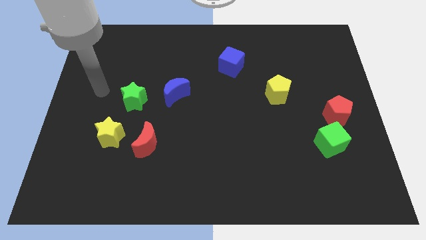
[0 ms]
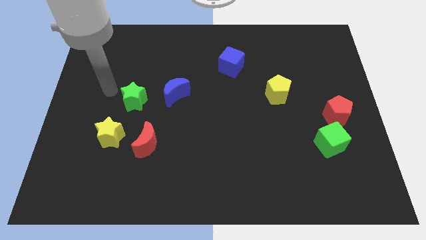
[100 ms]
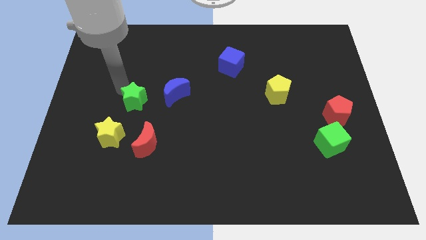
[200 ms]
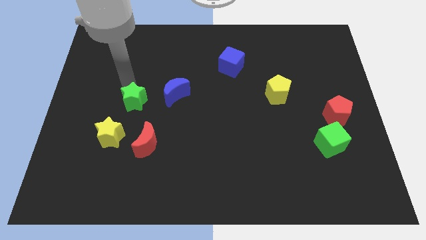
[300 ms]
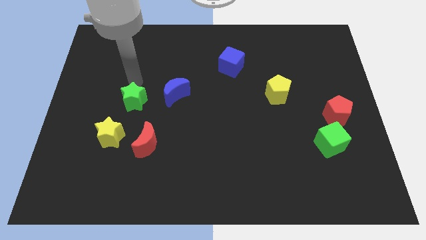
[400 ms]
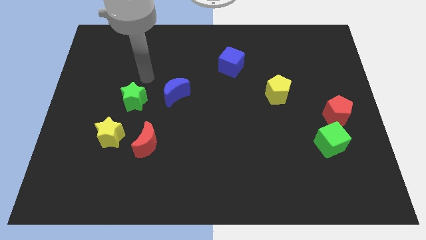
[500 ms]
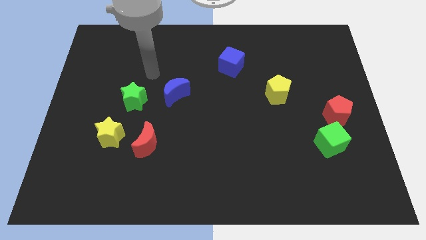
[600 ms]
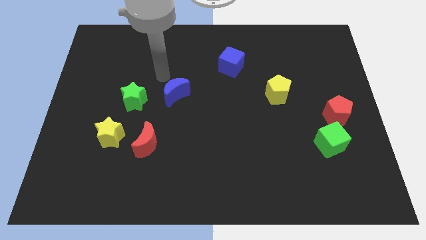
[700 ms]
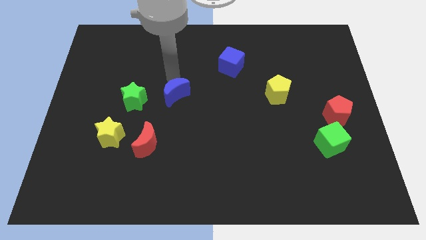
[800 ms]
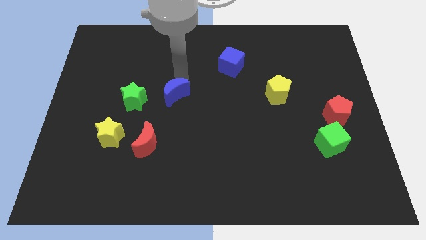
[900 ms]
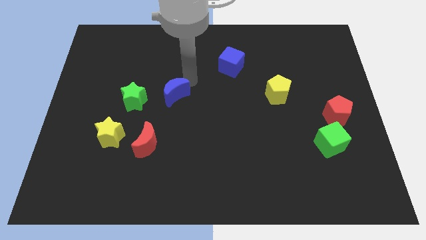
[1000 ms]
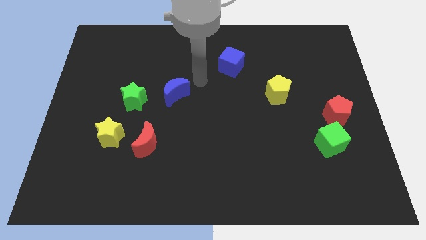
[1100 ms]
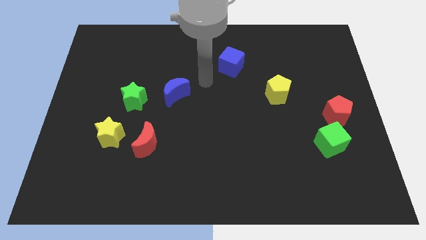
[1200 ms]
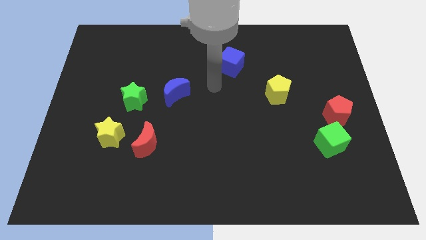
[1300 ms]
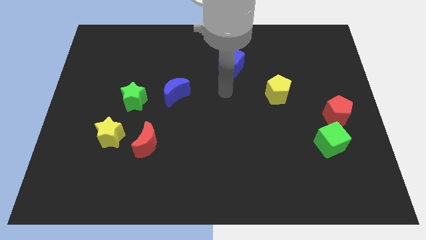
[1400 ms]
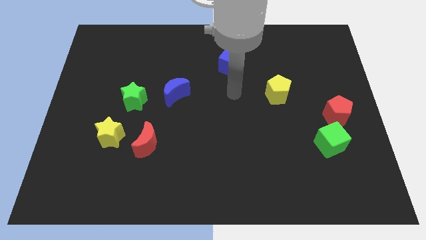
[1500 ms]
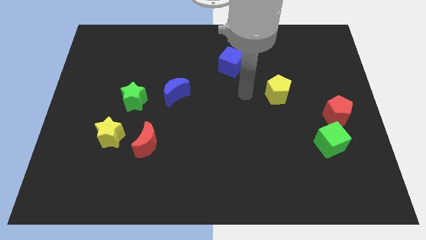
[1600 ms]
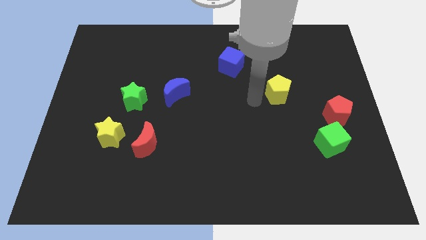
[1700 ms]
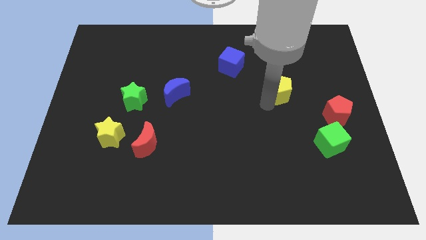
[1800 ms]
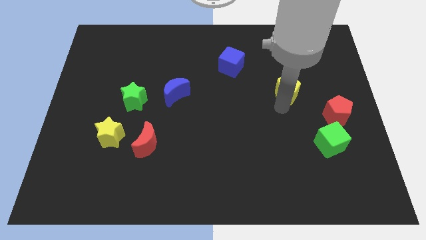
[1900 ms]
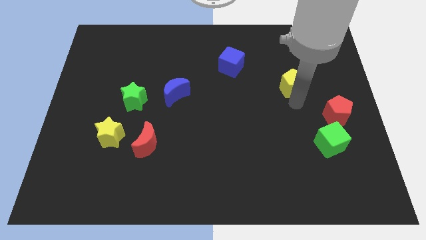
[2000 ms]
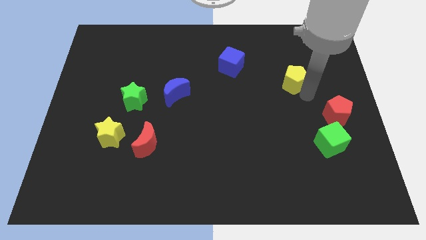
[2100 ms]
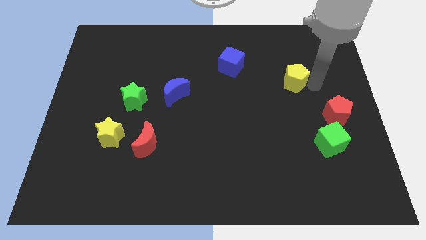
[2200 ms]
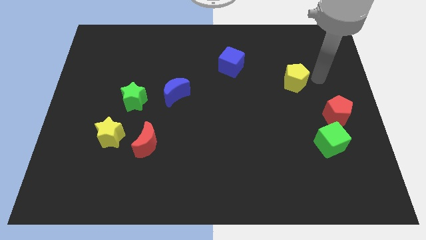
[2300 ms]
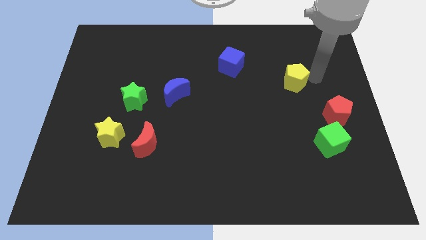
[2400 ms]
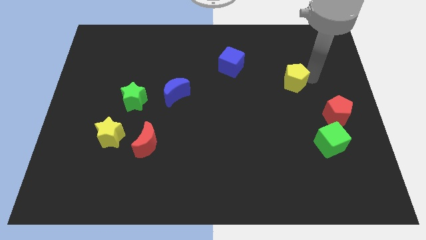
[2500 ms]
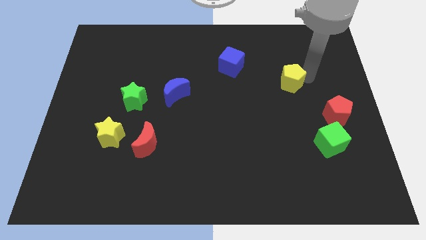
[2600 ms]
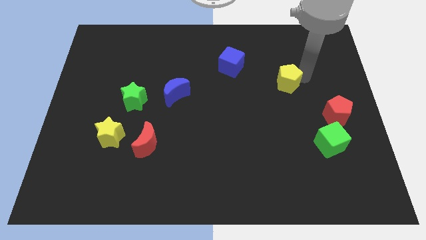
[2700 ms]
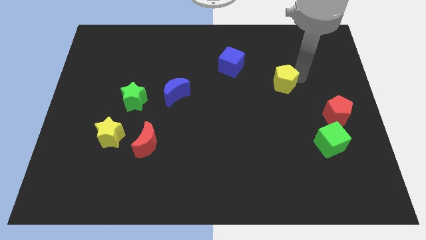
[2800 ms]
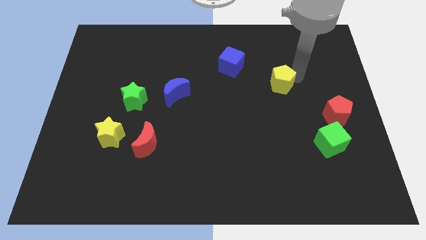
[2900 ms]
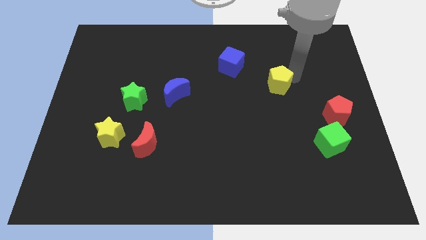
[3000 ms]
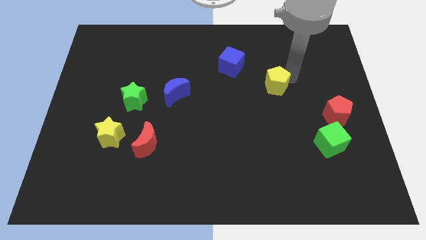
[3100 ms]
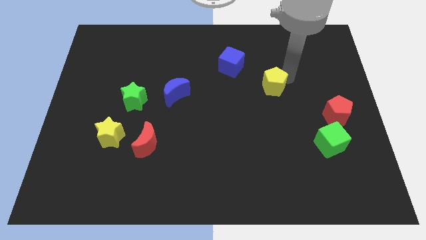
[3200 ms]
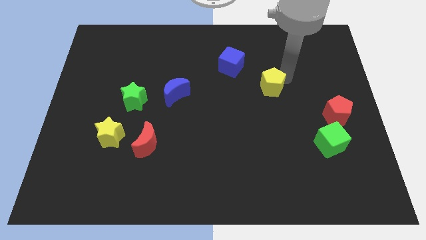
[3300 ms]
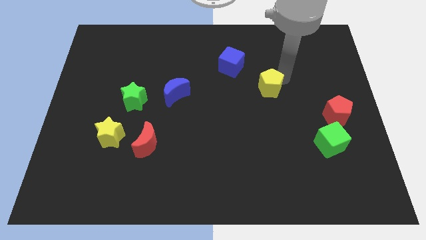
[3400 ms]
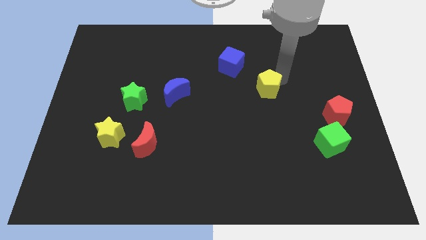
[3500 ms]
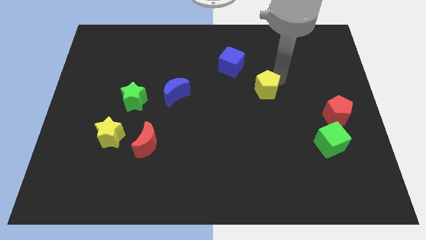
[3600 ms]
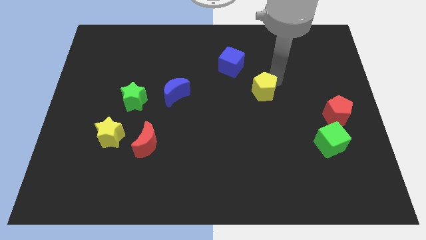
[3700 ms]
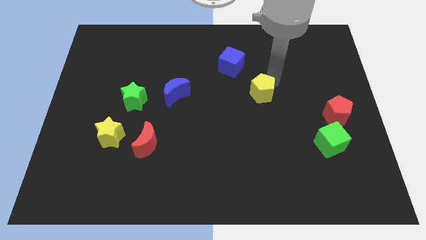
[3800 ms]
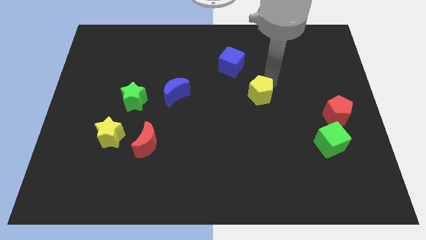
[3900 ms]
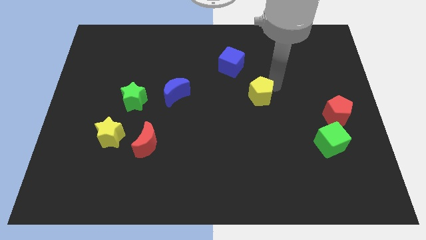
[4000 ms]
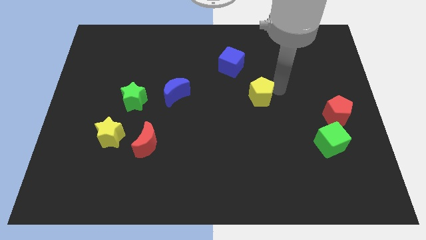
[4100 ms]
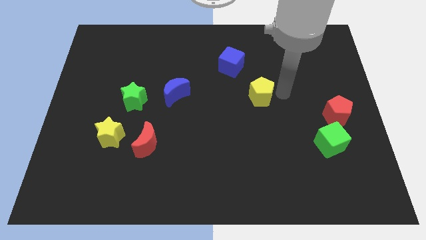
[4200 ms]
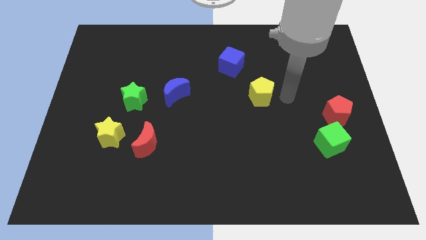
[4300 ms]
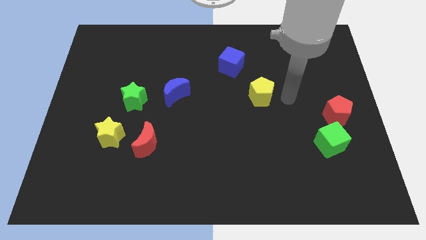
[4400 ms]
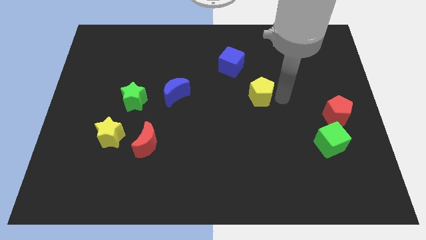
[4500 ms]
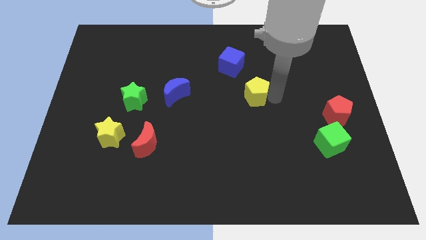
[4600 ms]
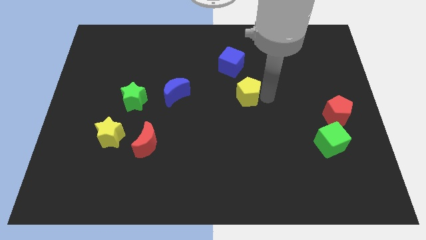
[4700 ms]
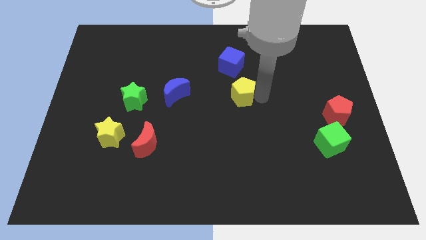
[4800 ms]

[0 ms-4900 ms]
slide the yellow pentagon right of the blue moon

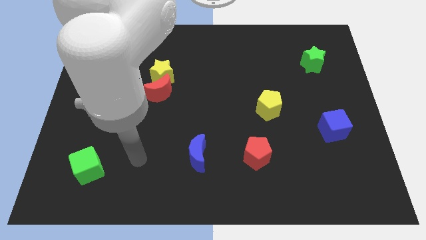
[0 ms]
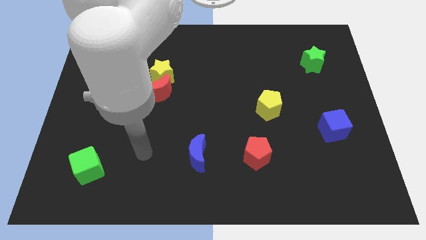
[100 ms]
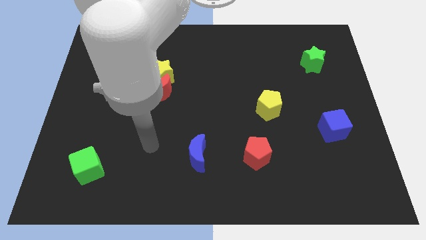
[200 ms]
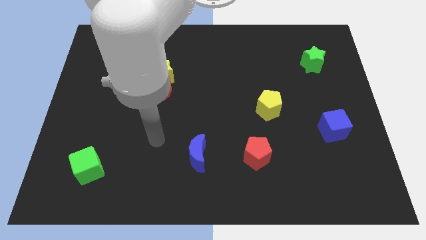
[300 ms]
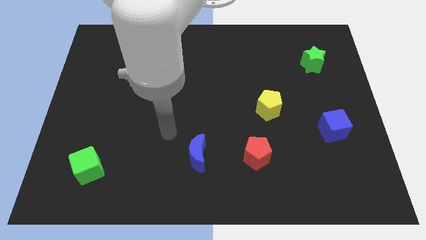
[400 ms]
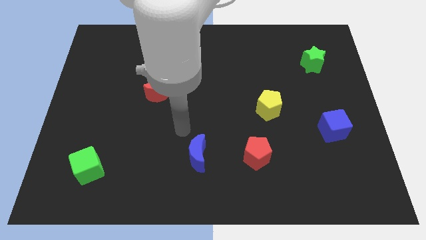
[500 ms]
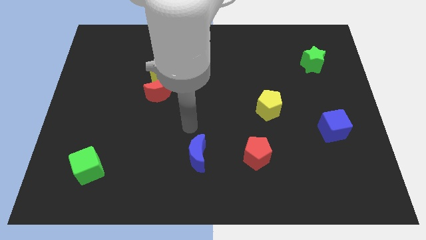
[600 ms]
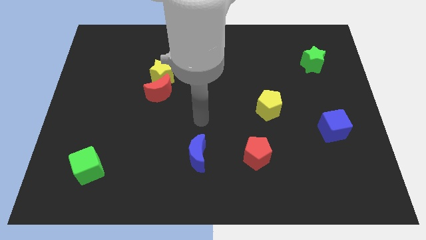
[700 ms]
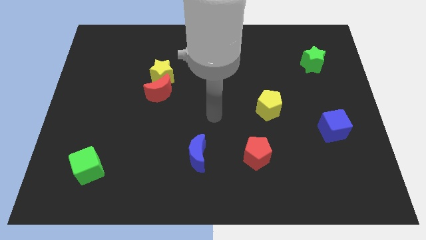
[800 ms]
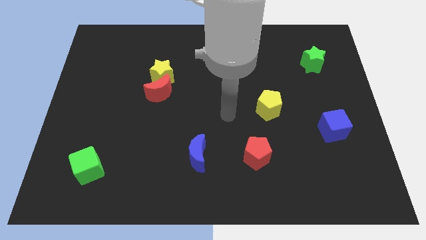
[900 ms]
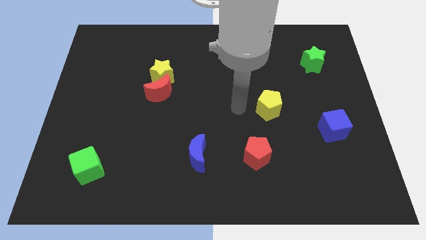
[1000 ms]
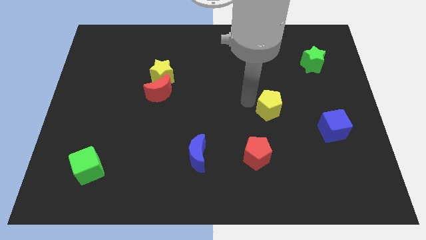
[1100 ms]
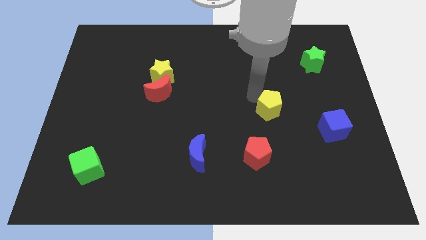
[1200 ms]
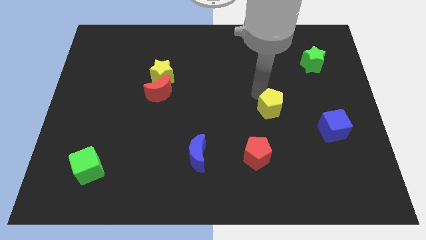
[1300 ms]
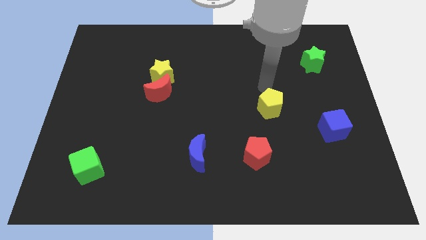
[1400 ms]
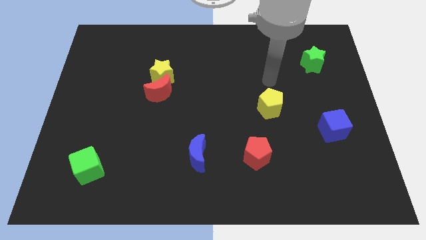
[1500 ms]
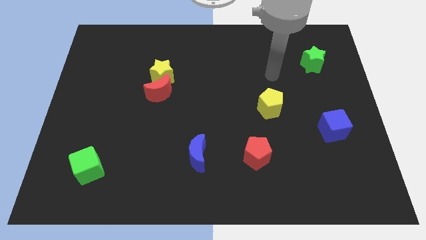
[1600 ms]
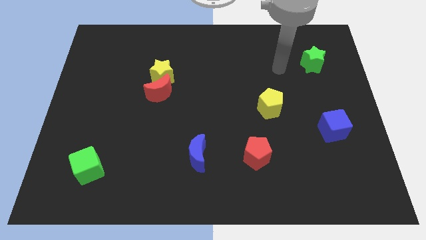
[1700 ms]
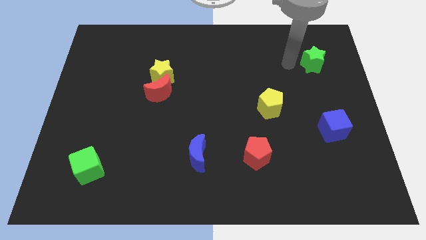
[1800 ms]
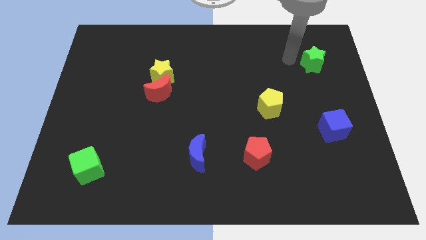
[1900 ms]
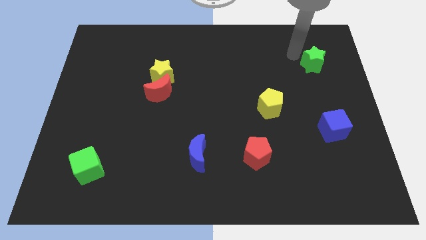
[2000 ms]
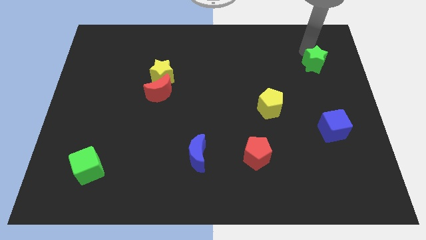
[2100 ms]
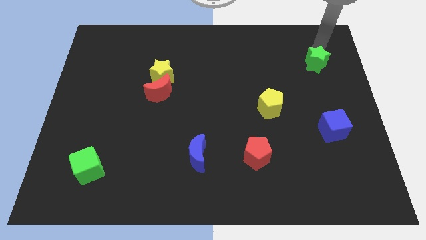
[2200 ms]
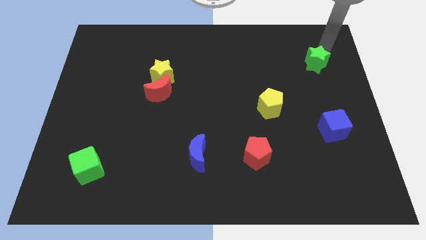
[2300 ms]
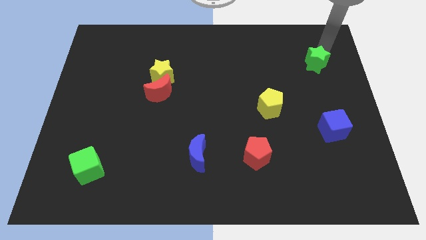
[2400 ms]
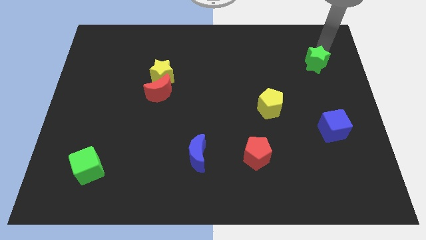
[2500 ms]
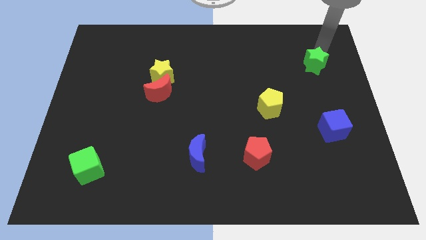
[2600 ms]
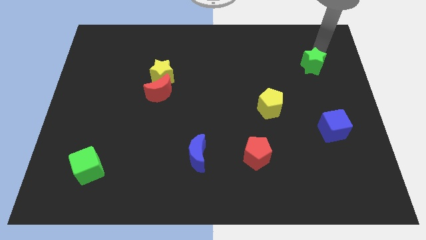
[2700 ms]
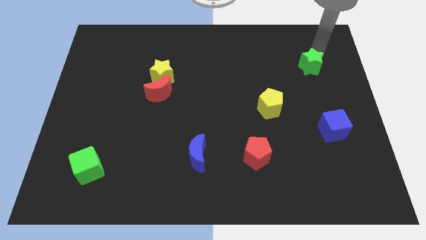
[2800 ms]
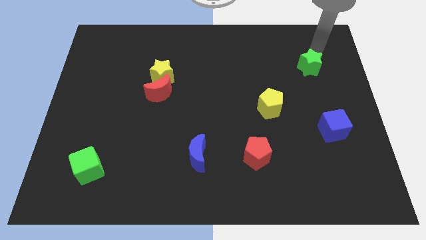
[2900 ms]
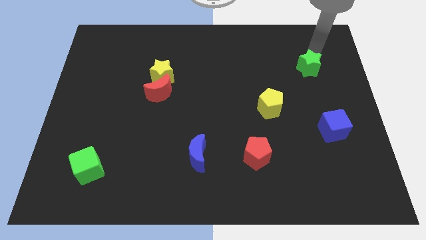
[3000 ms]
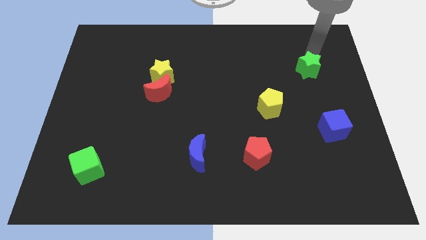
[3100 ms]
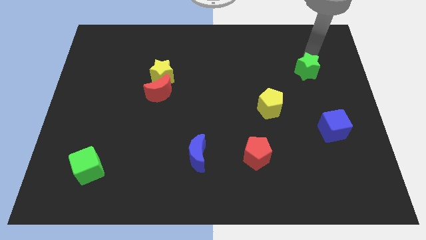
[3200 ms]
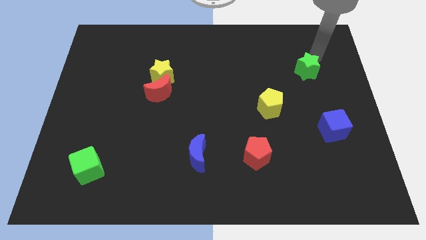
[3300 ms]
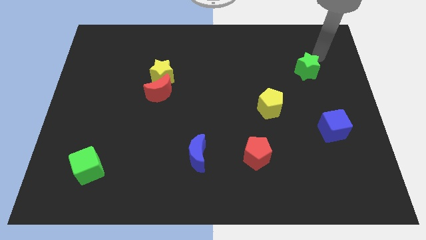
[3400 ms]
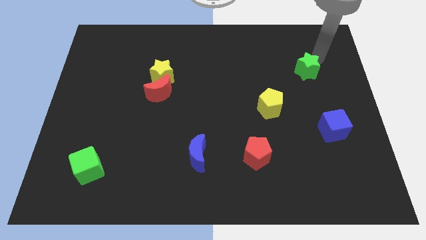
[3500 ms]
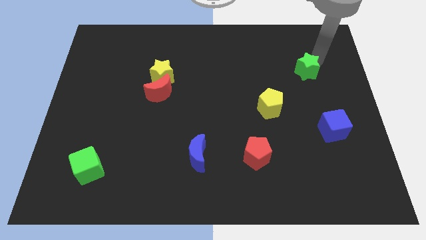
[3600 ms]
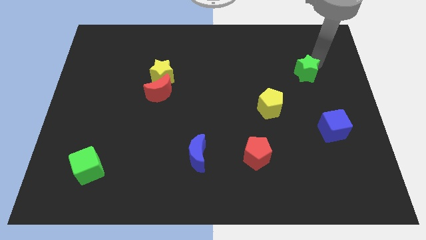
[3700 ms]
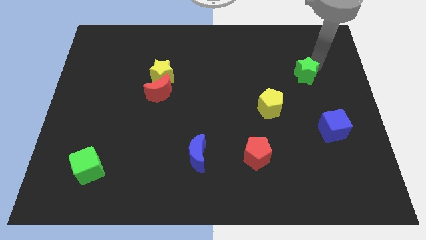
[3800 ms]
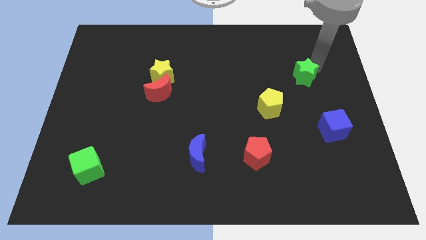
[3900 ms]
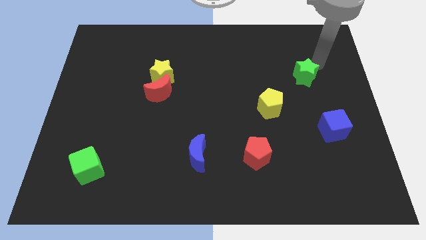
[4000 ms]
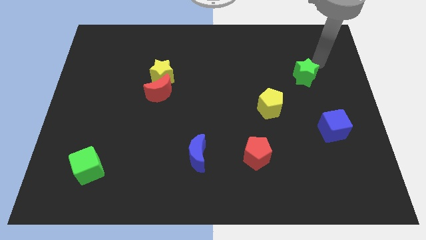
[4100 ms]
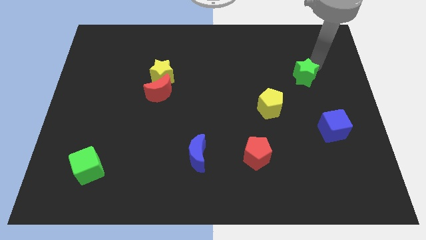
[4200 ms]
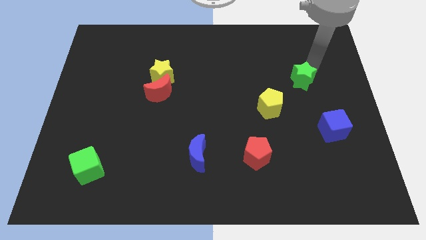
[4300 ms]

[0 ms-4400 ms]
slide the green star diagonally up and to the right of the yellow pentagon
